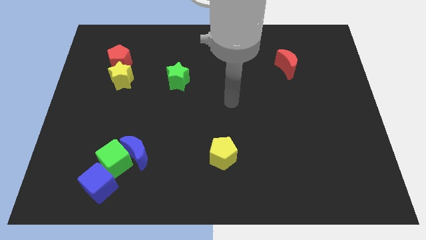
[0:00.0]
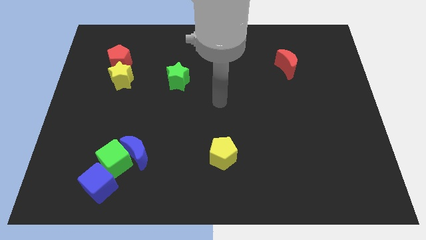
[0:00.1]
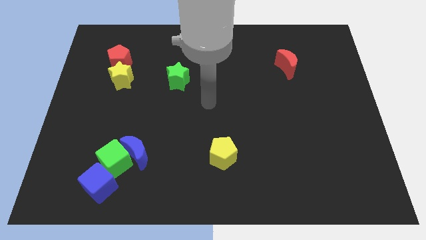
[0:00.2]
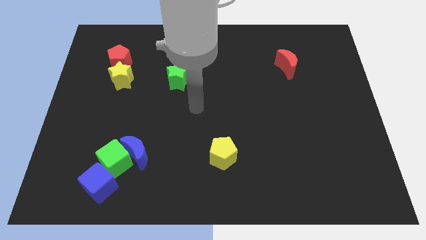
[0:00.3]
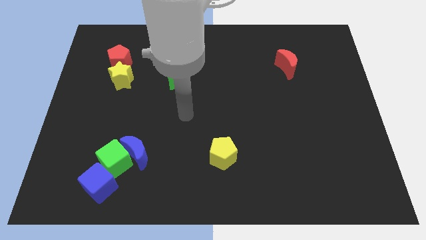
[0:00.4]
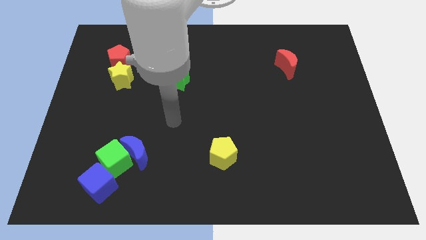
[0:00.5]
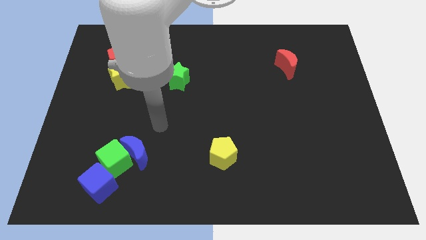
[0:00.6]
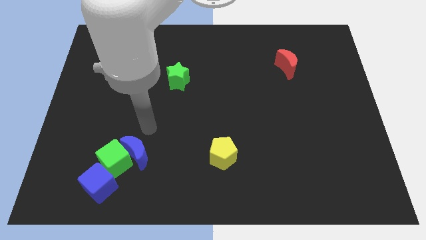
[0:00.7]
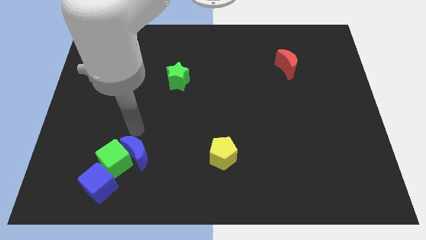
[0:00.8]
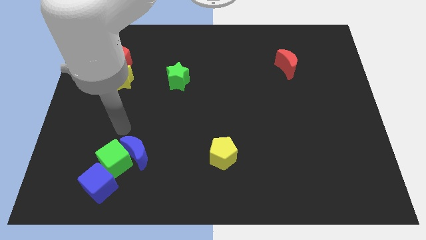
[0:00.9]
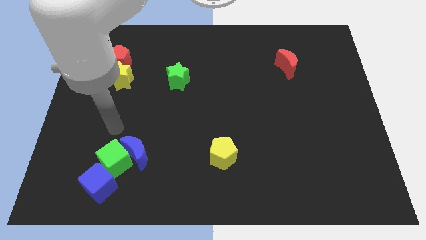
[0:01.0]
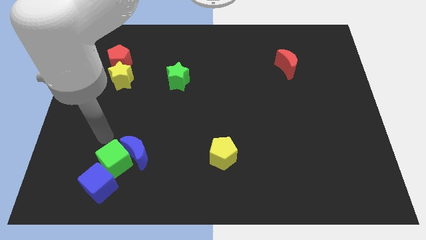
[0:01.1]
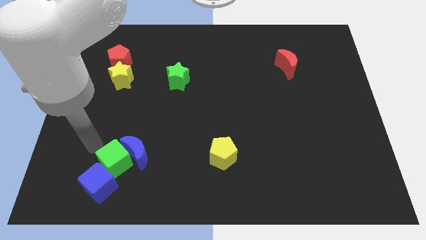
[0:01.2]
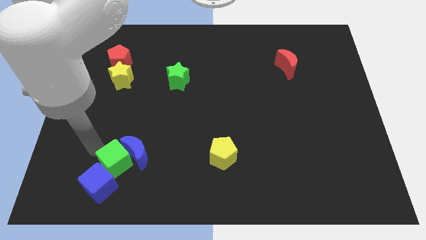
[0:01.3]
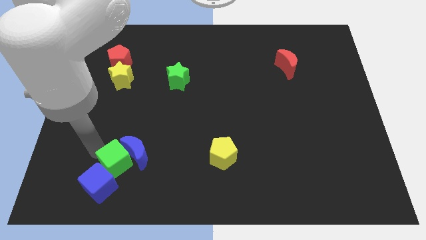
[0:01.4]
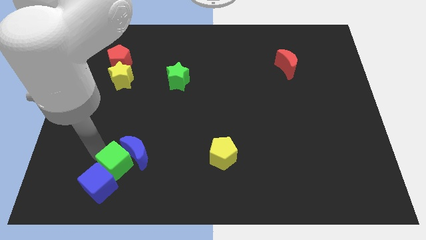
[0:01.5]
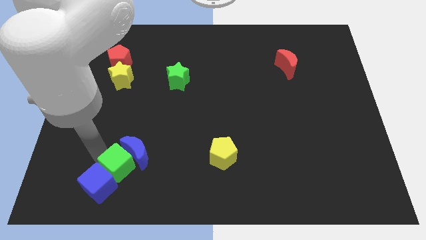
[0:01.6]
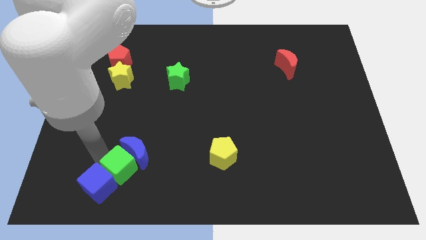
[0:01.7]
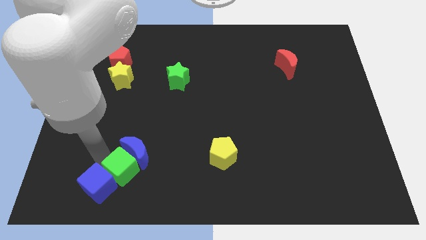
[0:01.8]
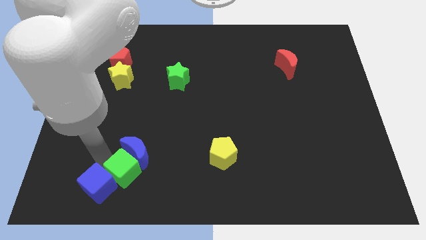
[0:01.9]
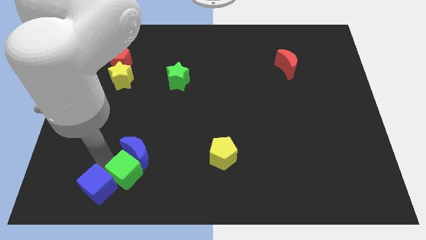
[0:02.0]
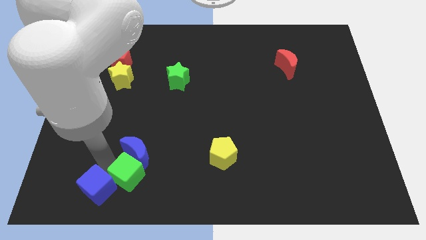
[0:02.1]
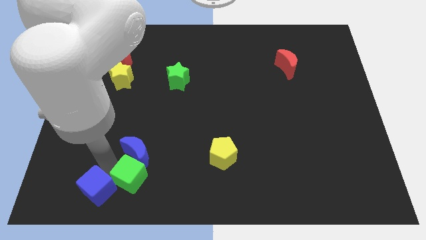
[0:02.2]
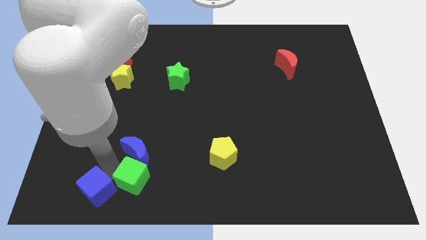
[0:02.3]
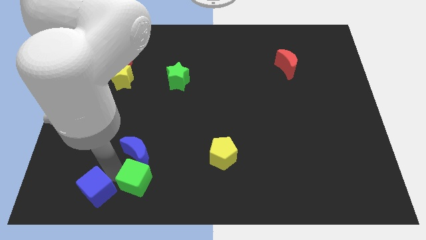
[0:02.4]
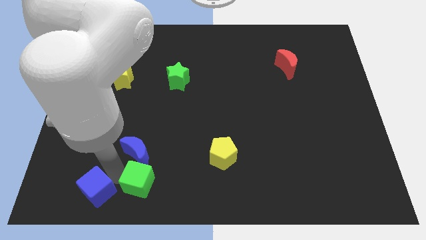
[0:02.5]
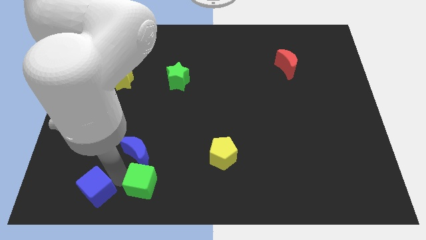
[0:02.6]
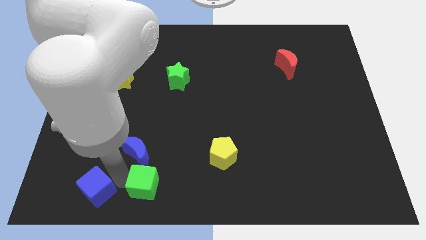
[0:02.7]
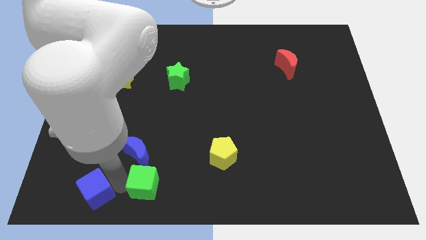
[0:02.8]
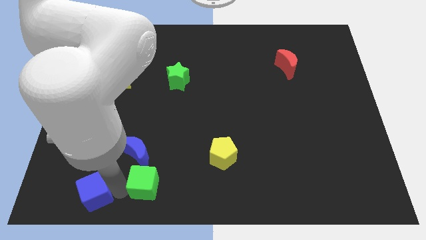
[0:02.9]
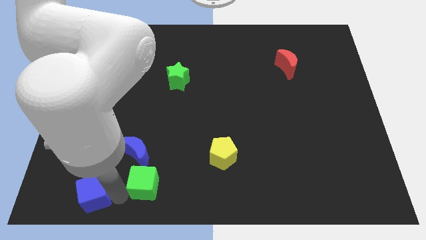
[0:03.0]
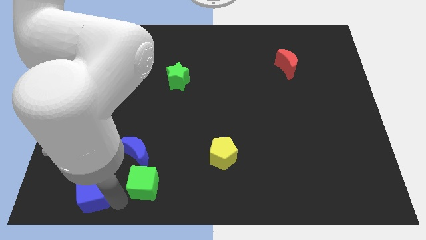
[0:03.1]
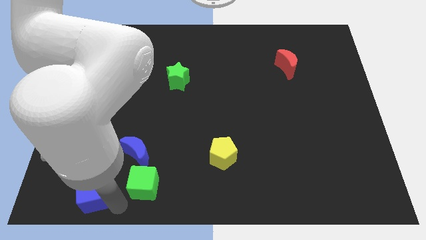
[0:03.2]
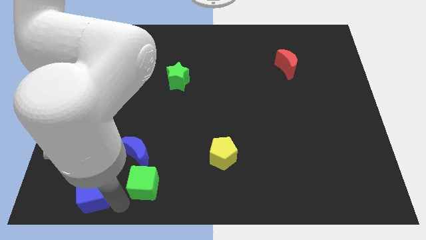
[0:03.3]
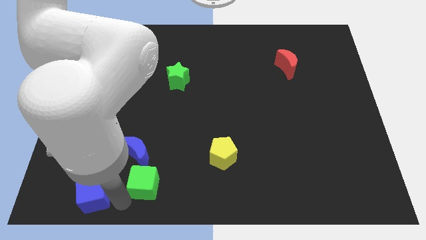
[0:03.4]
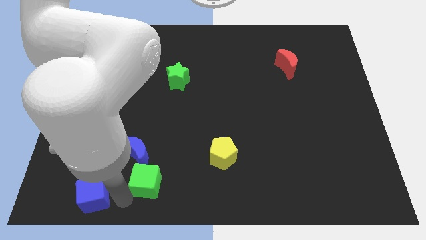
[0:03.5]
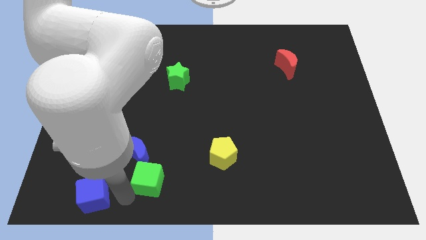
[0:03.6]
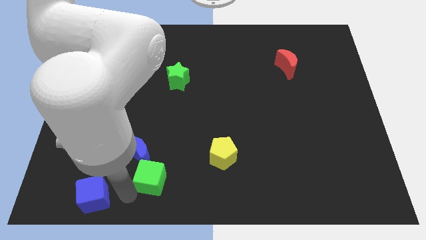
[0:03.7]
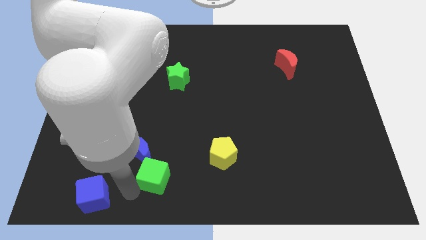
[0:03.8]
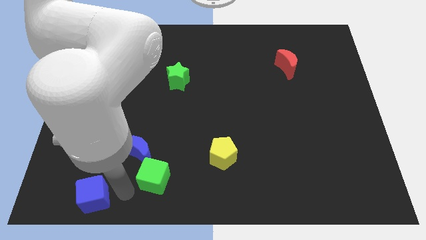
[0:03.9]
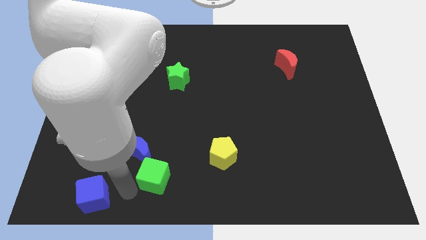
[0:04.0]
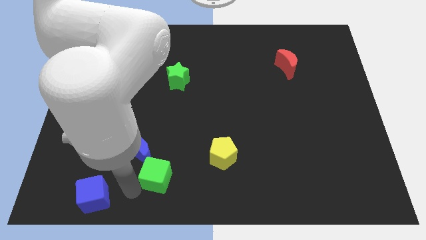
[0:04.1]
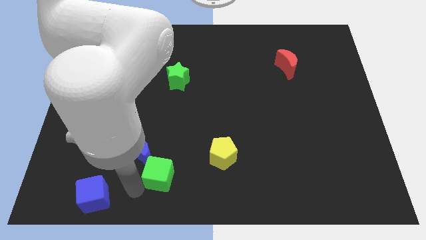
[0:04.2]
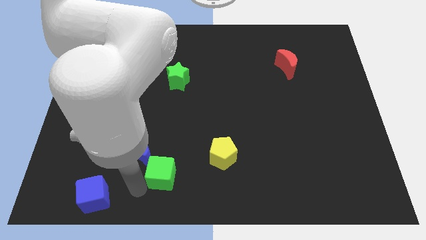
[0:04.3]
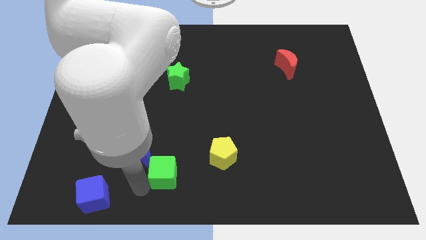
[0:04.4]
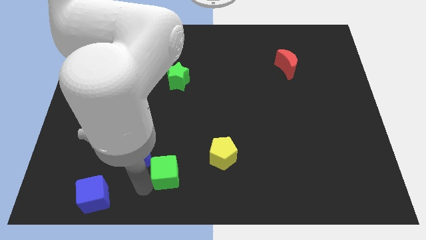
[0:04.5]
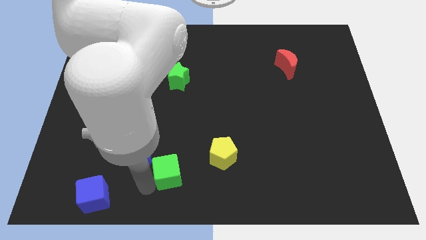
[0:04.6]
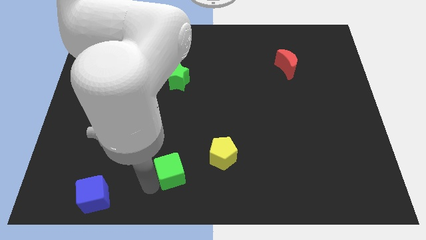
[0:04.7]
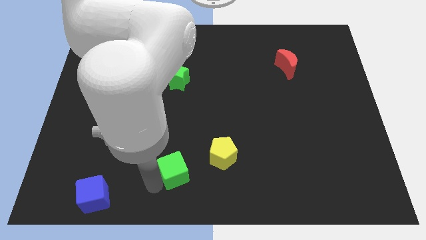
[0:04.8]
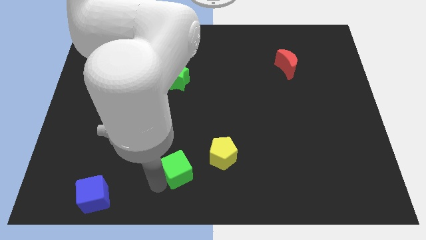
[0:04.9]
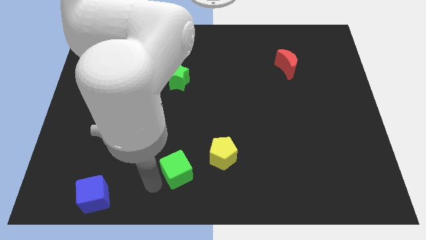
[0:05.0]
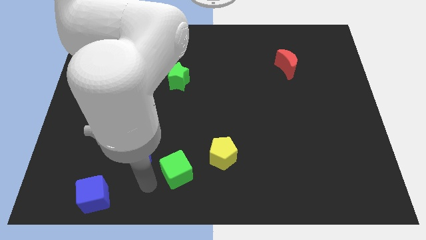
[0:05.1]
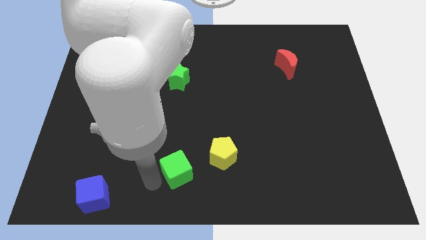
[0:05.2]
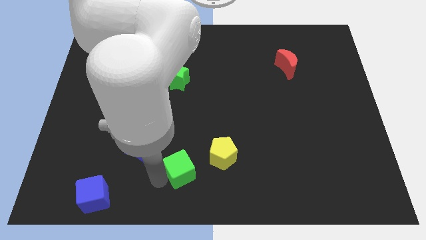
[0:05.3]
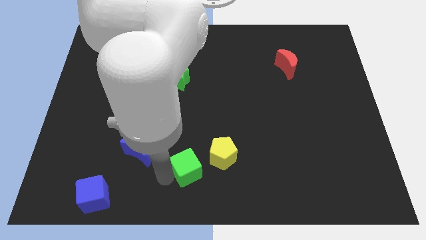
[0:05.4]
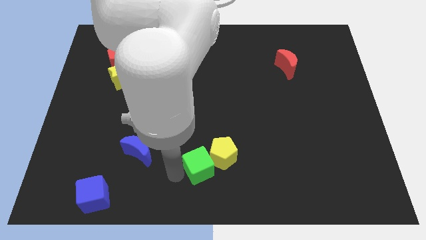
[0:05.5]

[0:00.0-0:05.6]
move the green cube next to the yellow pentagon

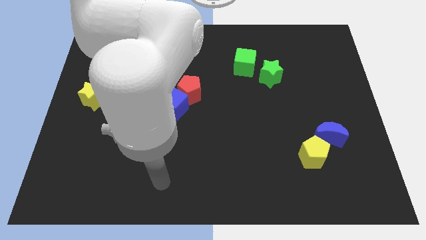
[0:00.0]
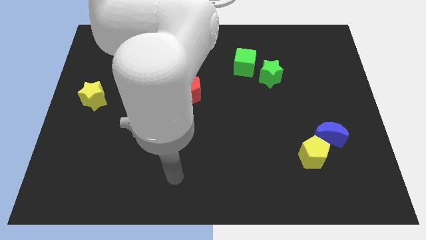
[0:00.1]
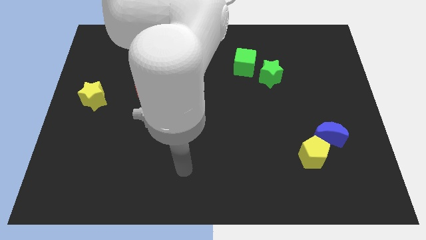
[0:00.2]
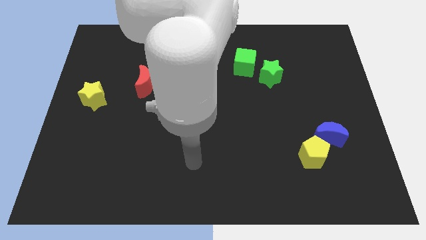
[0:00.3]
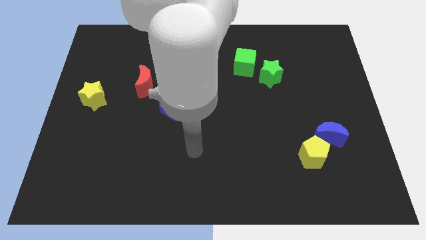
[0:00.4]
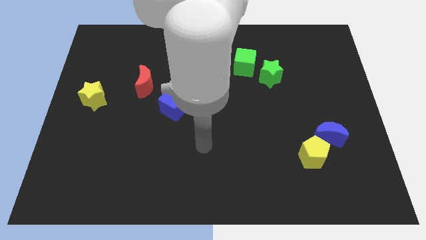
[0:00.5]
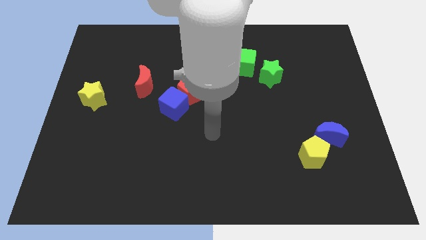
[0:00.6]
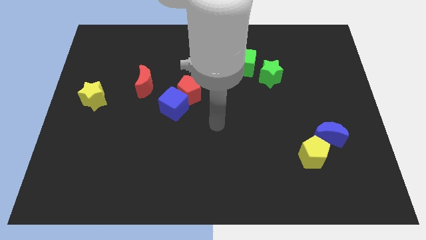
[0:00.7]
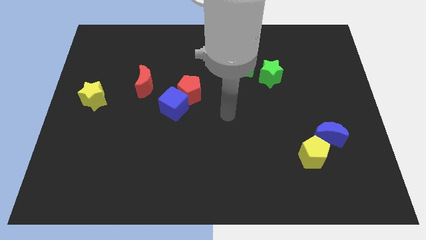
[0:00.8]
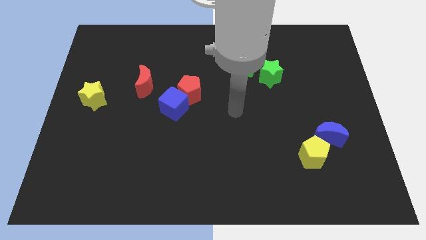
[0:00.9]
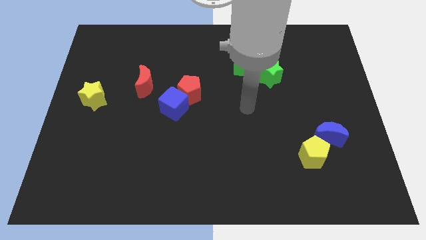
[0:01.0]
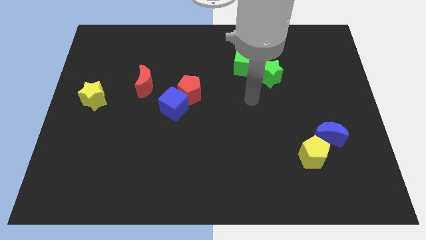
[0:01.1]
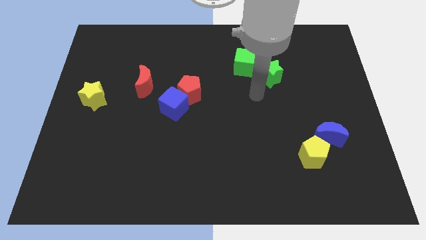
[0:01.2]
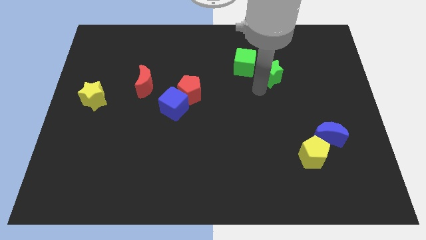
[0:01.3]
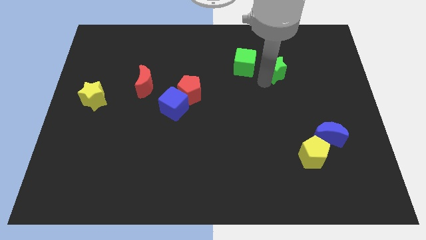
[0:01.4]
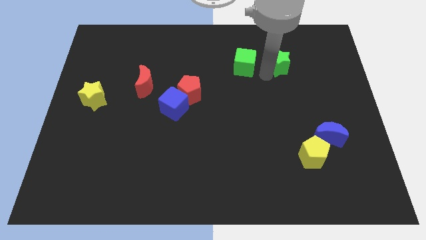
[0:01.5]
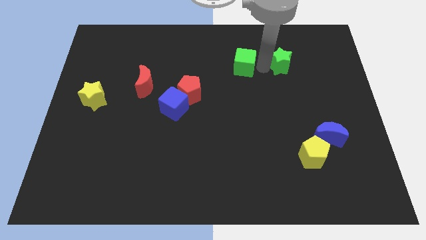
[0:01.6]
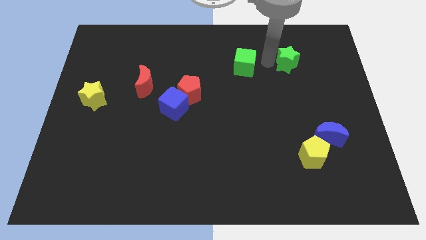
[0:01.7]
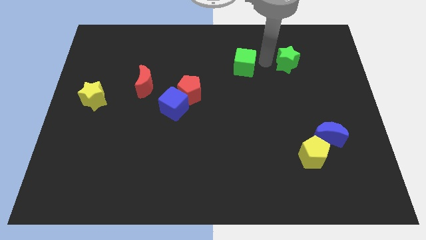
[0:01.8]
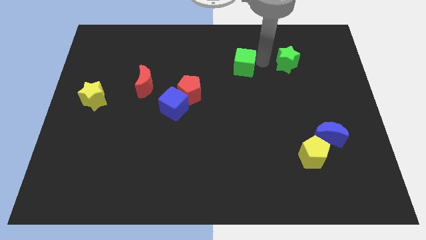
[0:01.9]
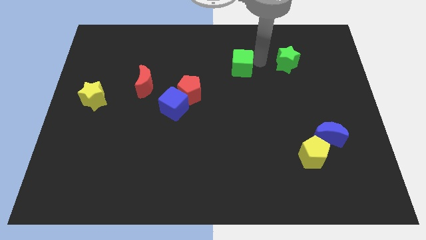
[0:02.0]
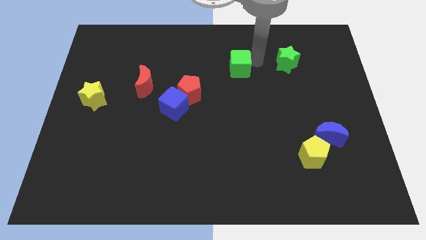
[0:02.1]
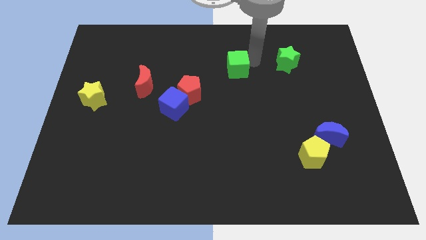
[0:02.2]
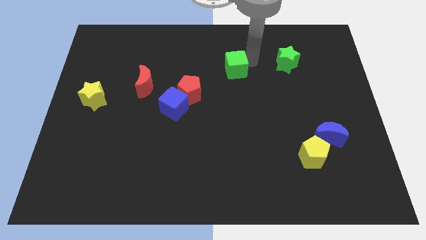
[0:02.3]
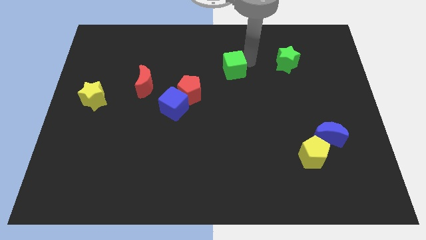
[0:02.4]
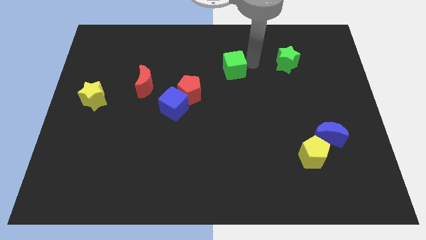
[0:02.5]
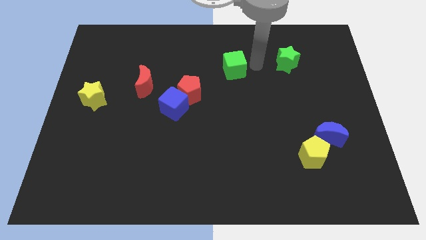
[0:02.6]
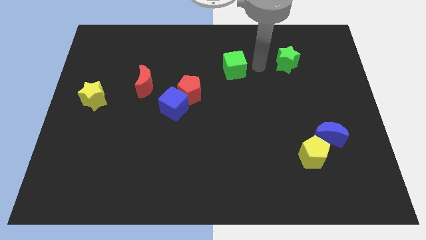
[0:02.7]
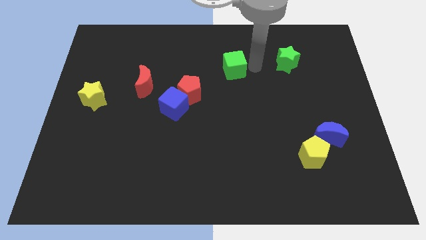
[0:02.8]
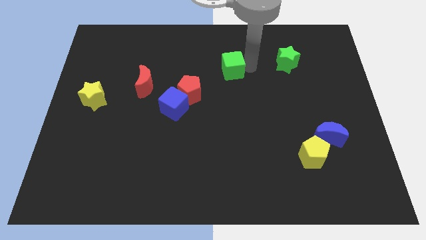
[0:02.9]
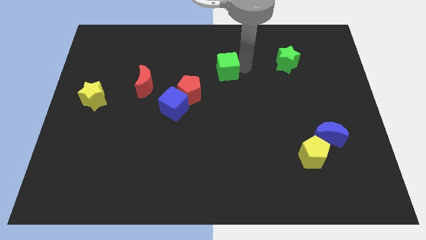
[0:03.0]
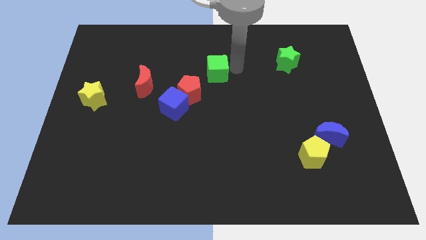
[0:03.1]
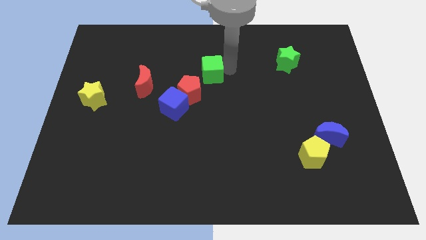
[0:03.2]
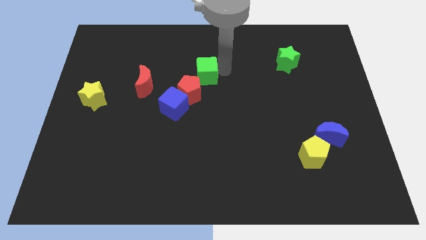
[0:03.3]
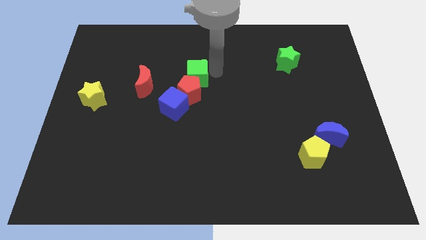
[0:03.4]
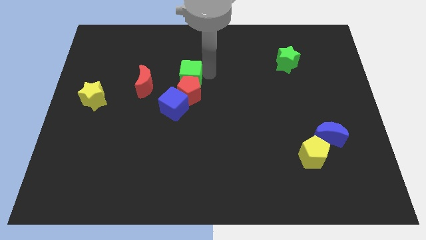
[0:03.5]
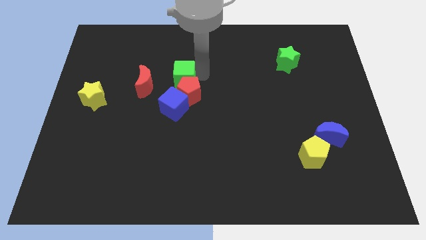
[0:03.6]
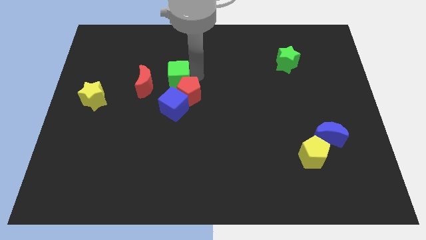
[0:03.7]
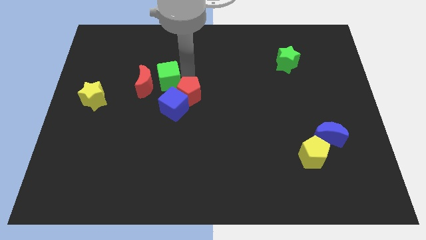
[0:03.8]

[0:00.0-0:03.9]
move the green cube next to the red moon
